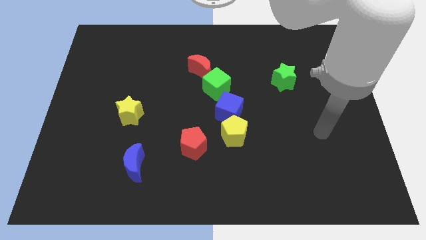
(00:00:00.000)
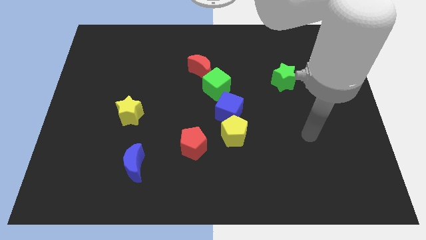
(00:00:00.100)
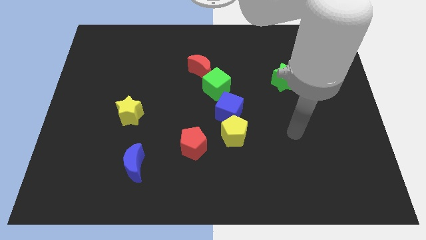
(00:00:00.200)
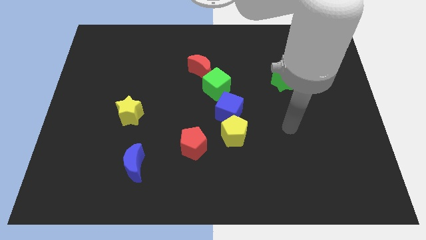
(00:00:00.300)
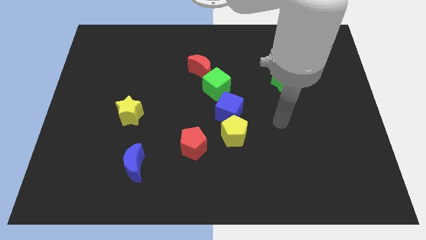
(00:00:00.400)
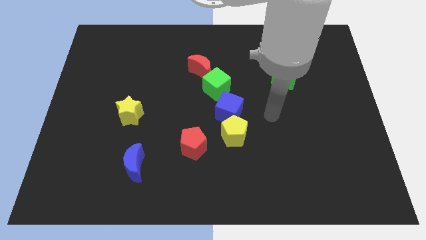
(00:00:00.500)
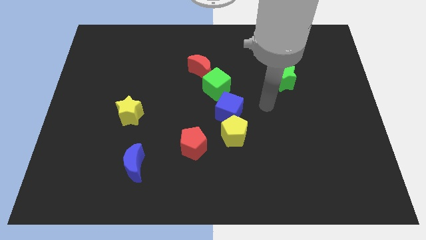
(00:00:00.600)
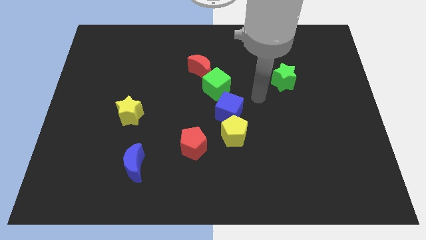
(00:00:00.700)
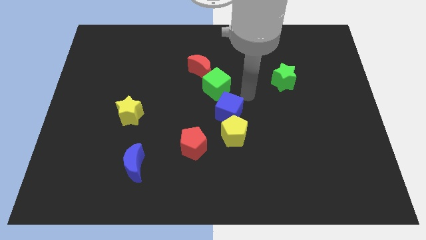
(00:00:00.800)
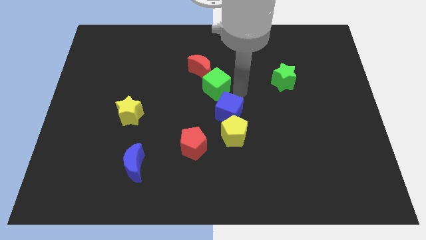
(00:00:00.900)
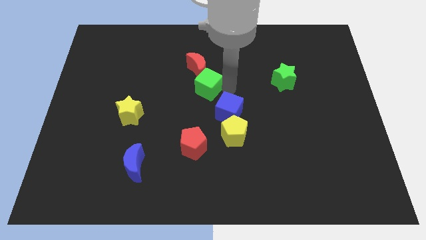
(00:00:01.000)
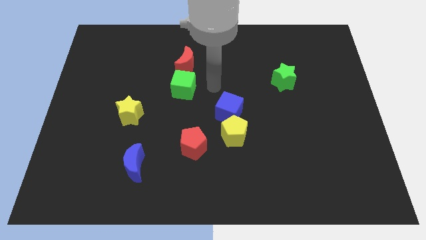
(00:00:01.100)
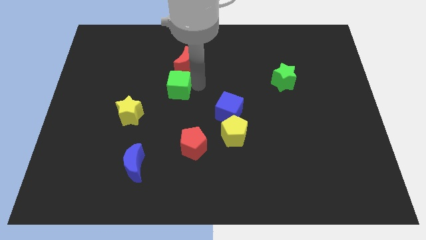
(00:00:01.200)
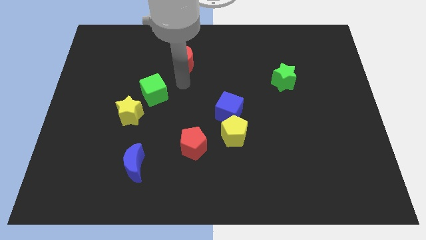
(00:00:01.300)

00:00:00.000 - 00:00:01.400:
pull the red moon apart from the green cube

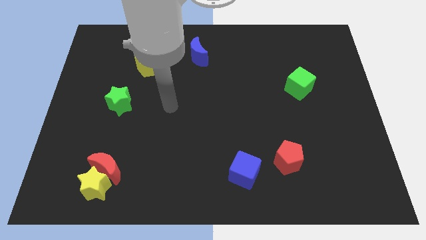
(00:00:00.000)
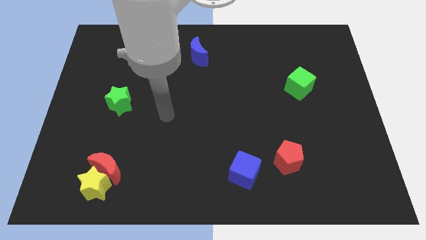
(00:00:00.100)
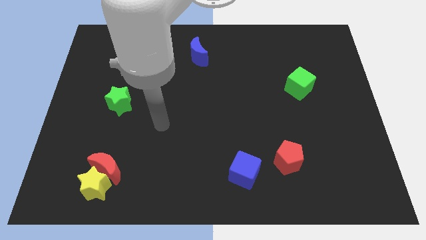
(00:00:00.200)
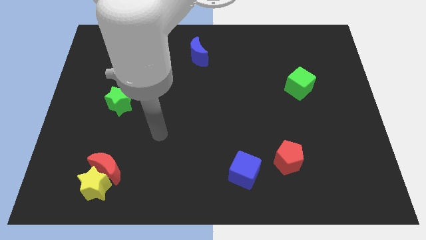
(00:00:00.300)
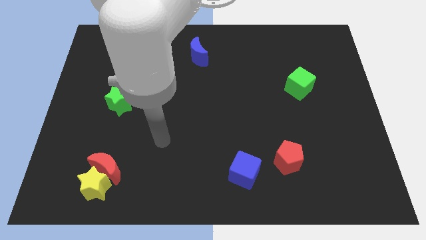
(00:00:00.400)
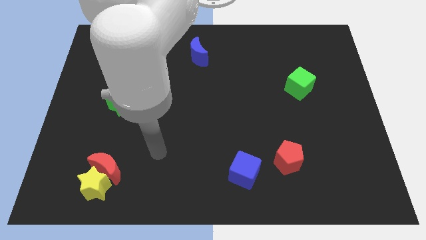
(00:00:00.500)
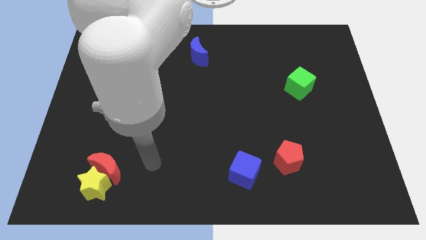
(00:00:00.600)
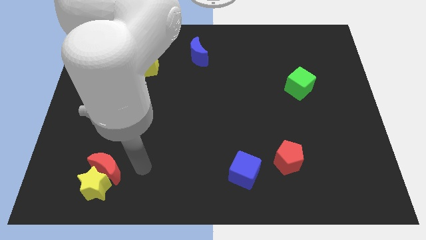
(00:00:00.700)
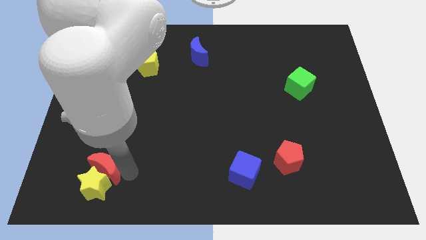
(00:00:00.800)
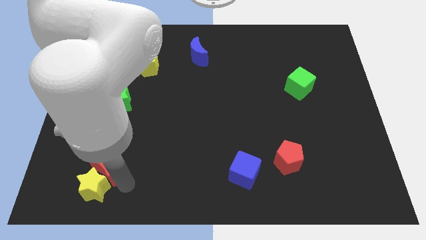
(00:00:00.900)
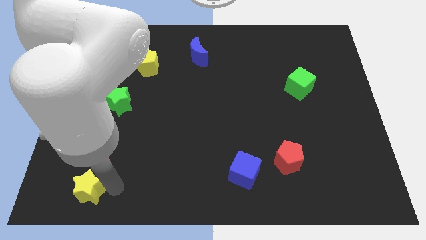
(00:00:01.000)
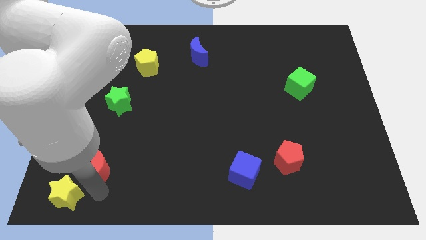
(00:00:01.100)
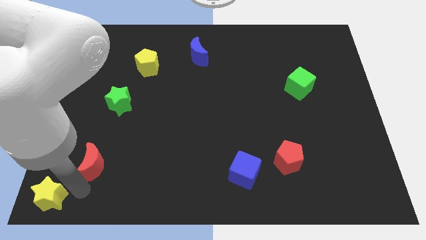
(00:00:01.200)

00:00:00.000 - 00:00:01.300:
separate the red moon from the yellow star

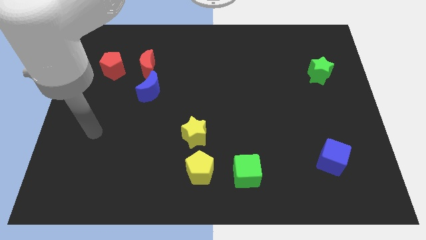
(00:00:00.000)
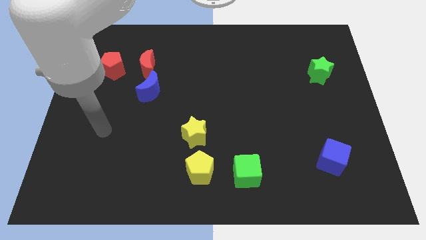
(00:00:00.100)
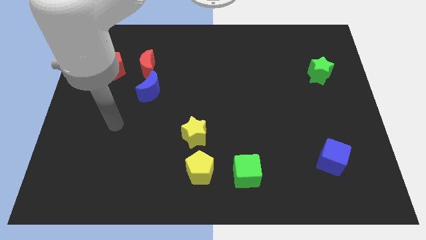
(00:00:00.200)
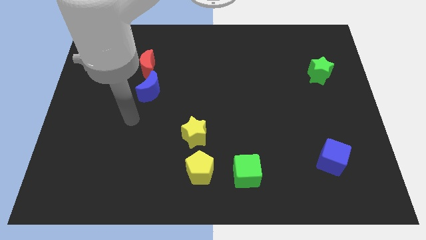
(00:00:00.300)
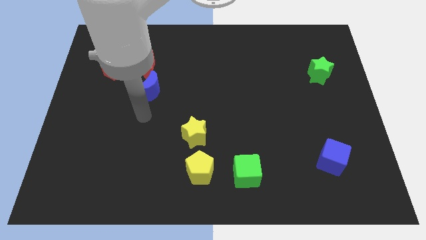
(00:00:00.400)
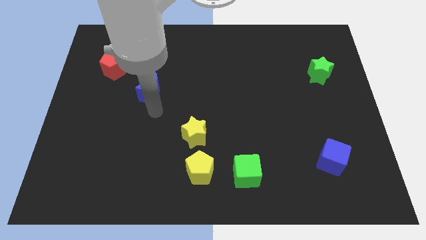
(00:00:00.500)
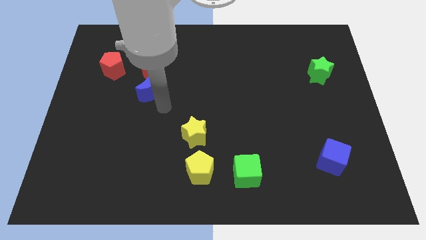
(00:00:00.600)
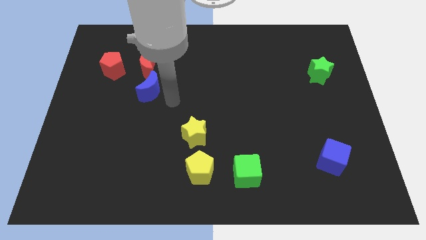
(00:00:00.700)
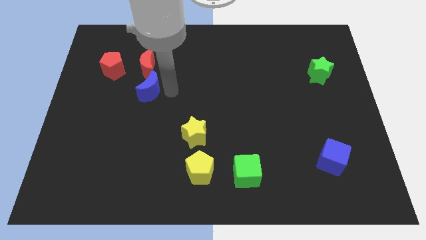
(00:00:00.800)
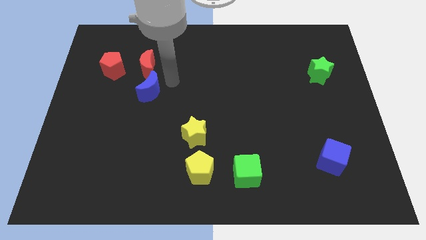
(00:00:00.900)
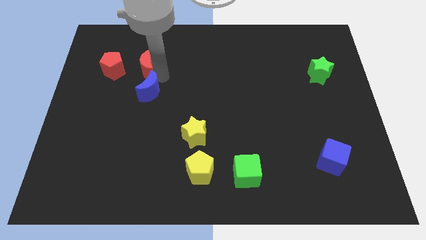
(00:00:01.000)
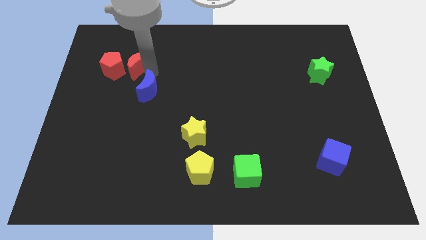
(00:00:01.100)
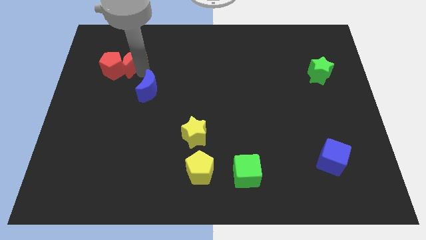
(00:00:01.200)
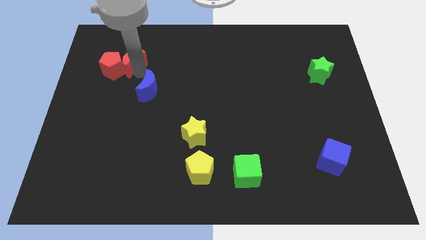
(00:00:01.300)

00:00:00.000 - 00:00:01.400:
move the blue moon away from the red moon

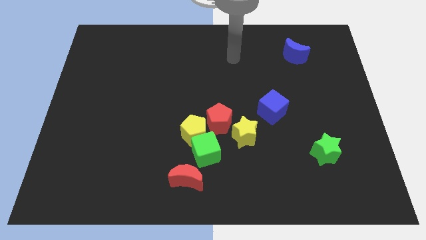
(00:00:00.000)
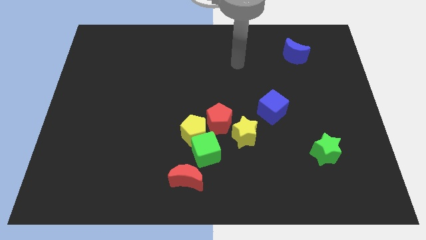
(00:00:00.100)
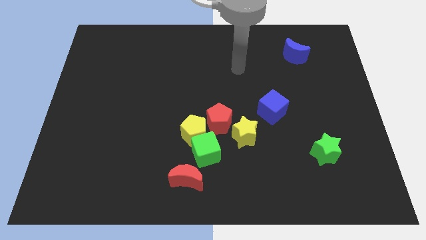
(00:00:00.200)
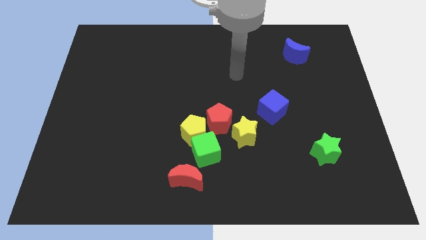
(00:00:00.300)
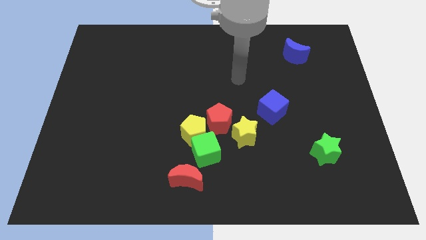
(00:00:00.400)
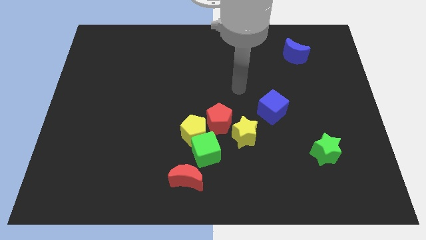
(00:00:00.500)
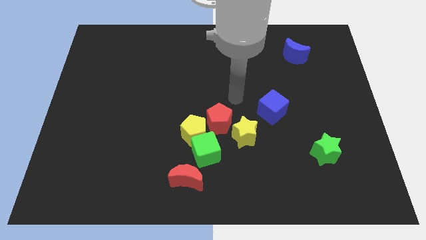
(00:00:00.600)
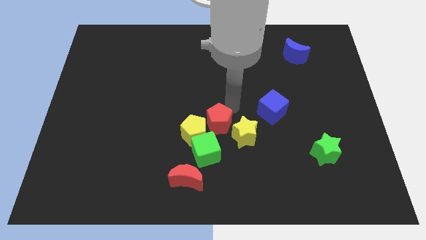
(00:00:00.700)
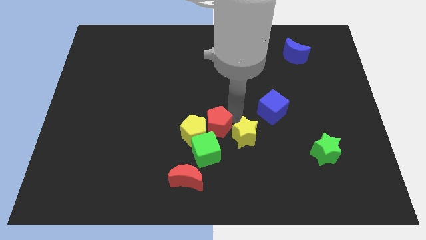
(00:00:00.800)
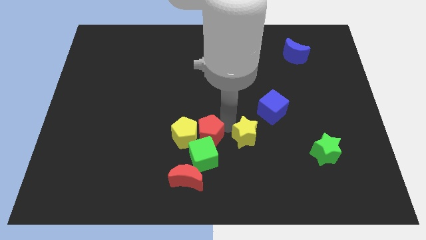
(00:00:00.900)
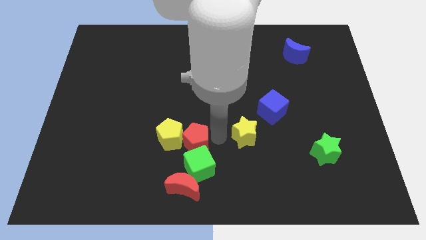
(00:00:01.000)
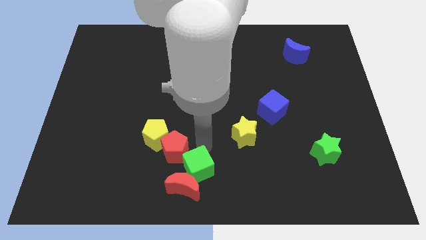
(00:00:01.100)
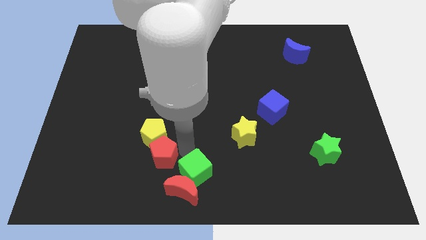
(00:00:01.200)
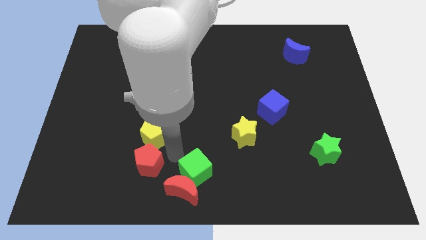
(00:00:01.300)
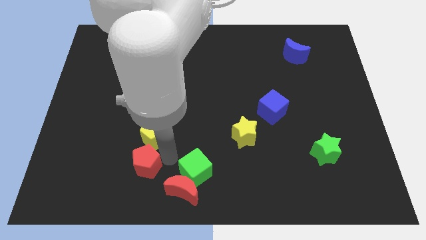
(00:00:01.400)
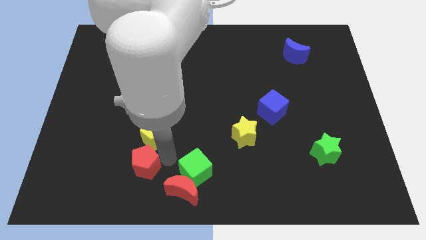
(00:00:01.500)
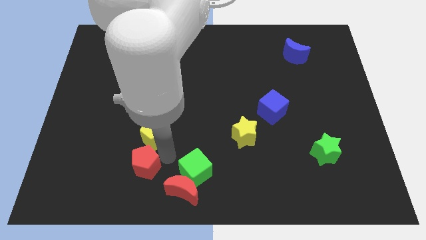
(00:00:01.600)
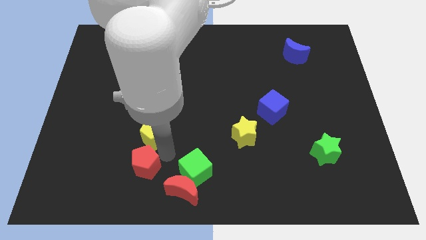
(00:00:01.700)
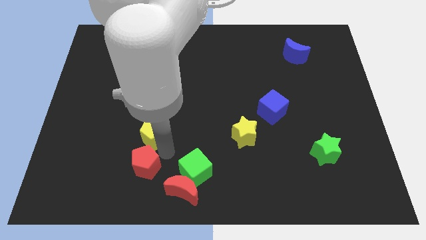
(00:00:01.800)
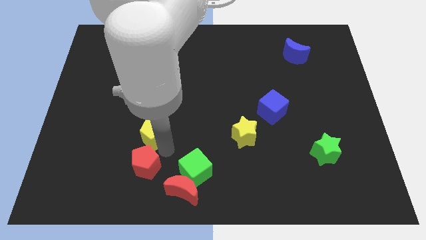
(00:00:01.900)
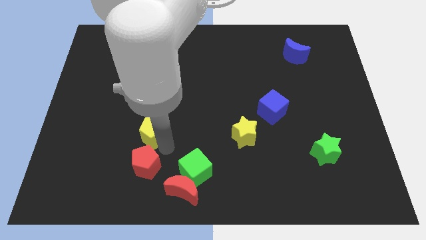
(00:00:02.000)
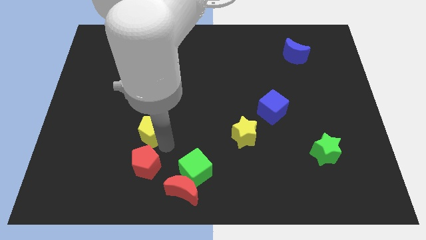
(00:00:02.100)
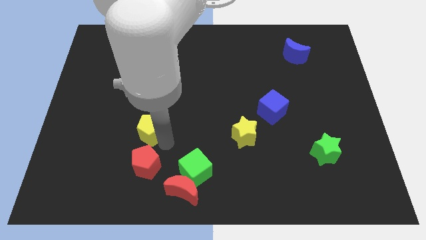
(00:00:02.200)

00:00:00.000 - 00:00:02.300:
pull the yellow pentagon apart from the green cube and red pentagon

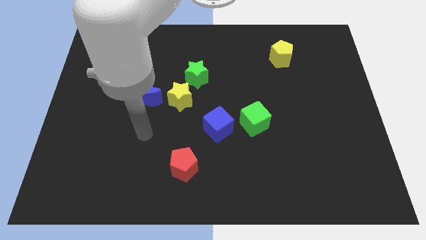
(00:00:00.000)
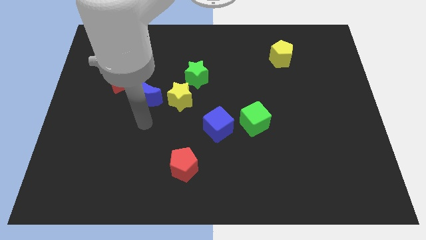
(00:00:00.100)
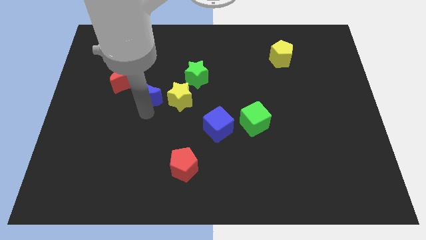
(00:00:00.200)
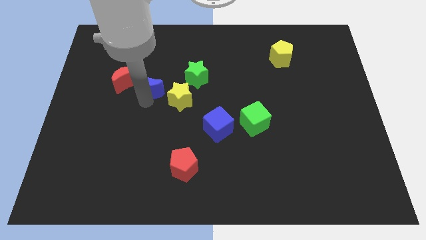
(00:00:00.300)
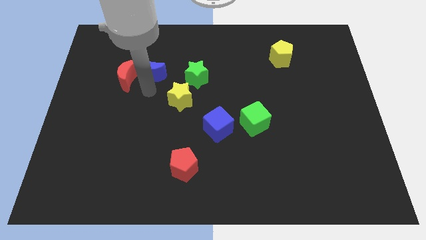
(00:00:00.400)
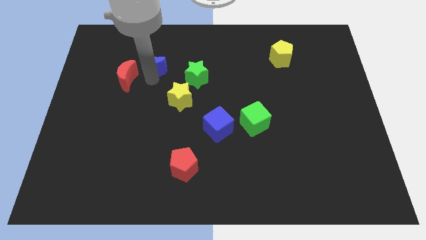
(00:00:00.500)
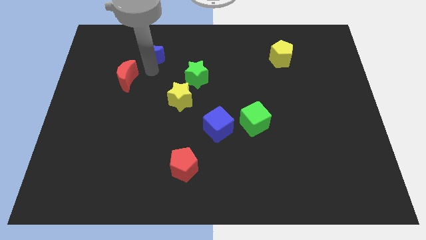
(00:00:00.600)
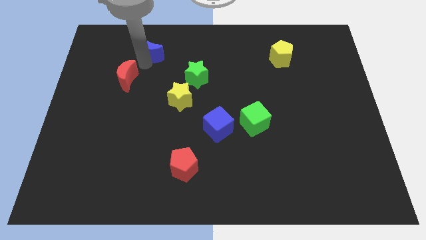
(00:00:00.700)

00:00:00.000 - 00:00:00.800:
pull the red moon apart from the blue moon

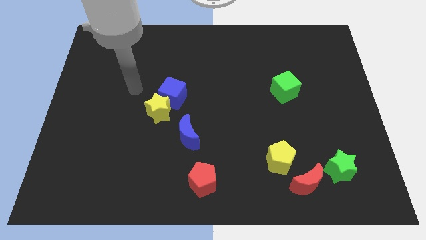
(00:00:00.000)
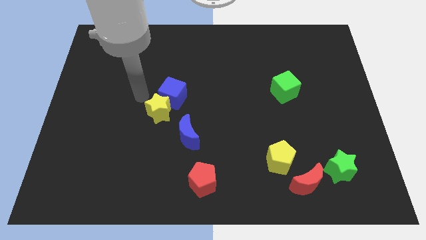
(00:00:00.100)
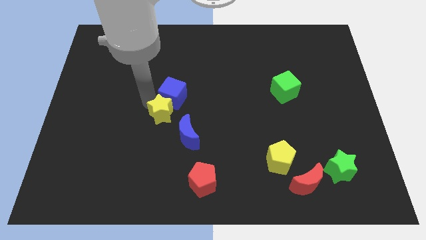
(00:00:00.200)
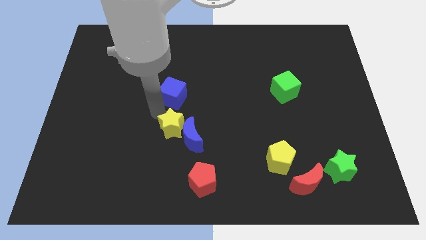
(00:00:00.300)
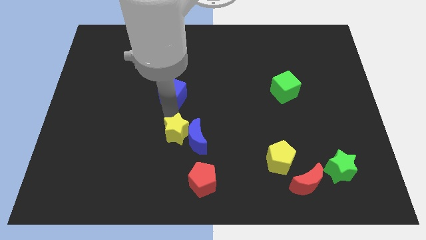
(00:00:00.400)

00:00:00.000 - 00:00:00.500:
separate the blue cube from the yellow star

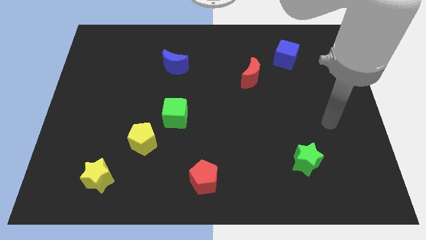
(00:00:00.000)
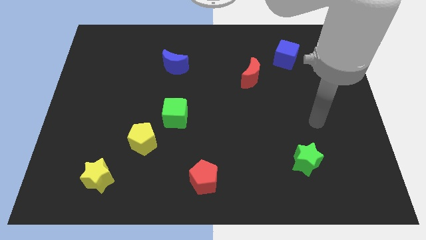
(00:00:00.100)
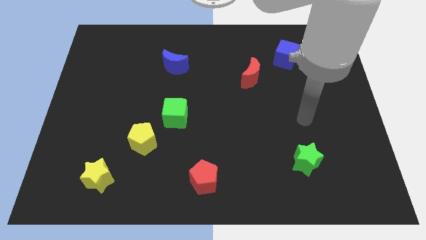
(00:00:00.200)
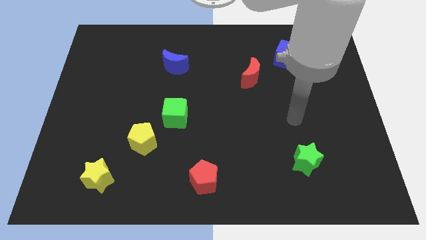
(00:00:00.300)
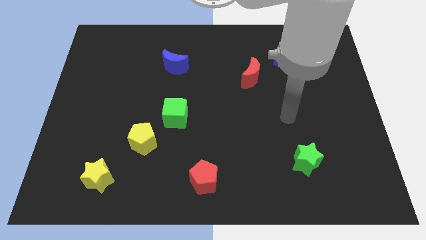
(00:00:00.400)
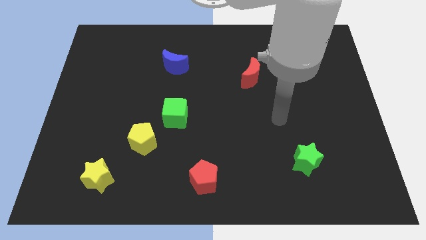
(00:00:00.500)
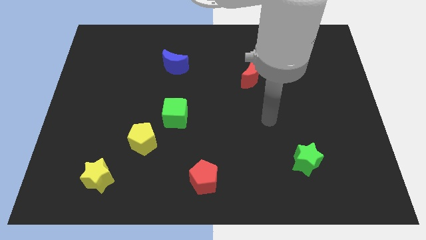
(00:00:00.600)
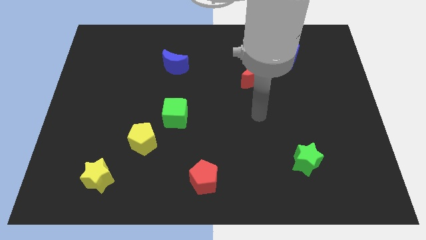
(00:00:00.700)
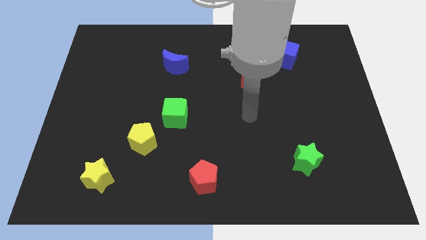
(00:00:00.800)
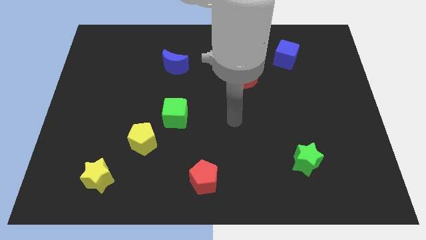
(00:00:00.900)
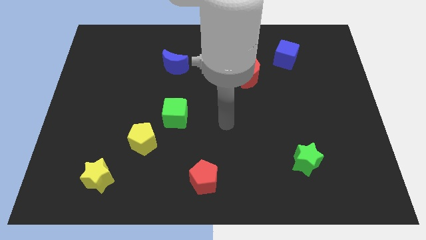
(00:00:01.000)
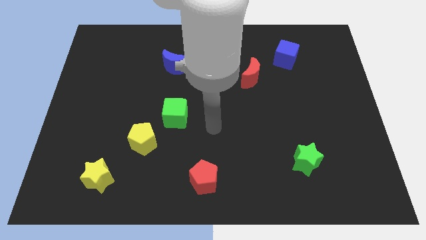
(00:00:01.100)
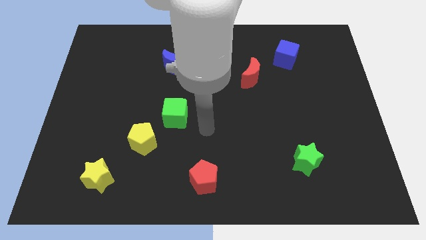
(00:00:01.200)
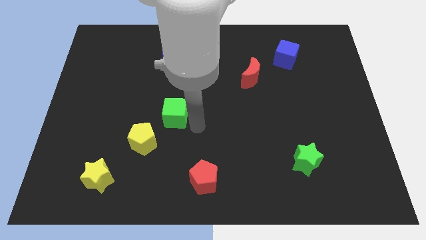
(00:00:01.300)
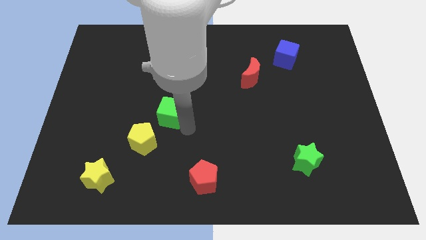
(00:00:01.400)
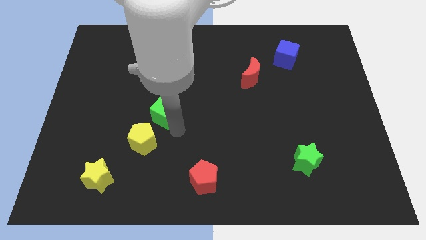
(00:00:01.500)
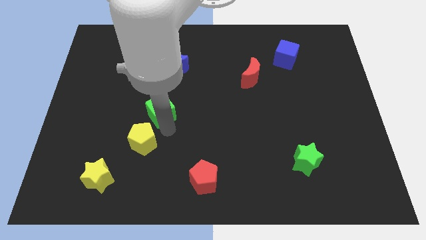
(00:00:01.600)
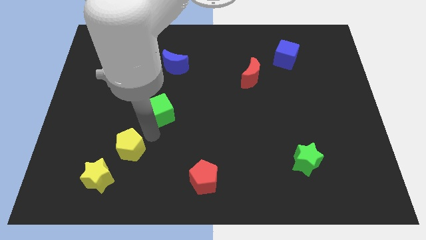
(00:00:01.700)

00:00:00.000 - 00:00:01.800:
pull the green cube apart from the yellow pentagon
